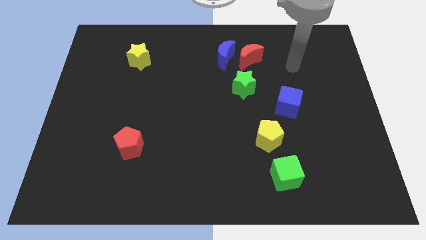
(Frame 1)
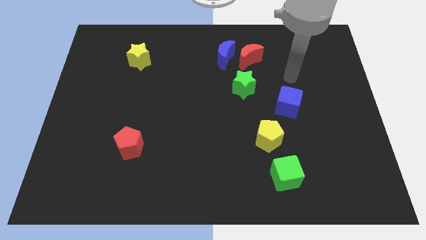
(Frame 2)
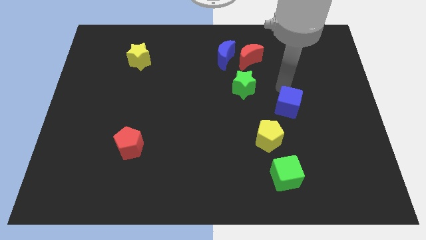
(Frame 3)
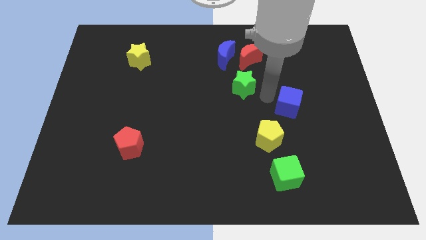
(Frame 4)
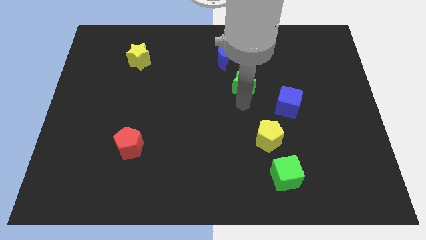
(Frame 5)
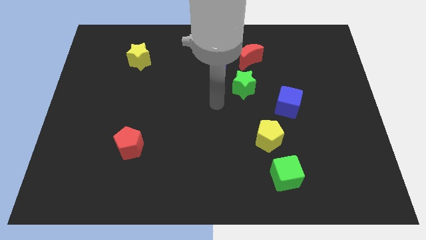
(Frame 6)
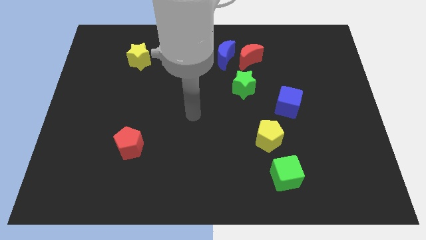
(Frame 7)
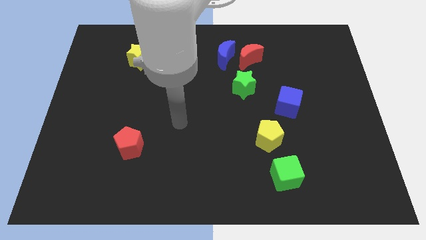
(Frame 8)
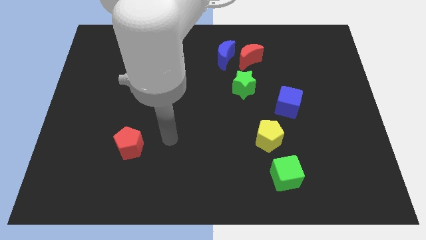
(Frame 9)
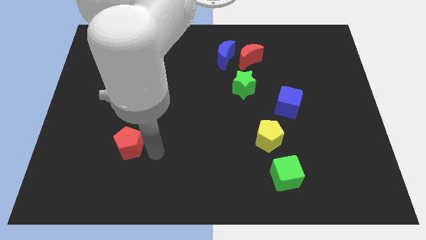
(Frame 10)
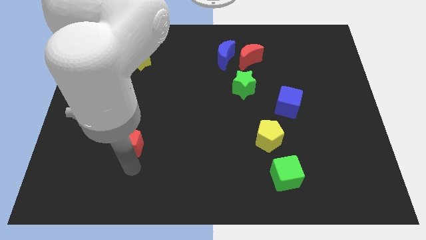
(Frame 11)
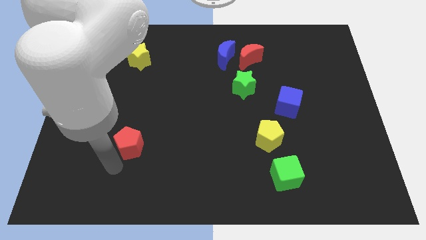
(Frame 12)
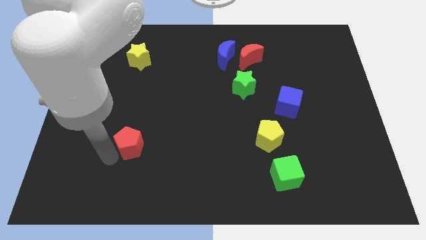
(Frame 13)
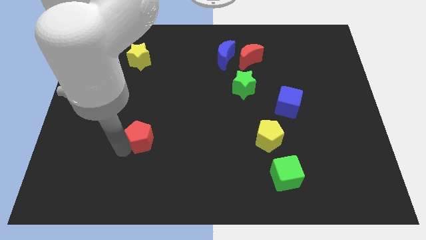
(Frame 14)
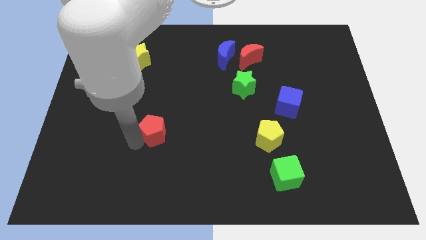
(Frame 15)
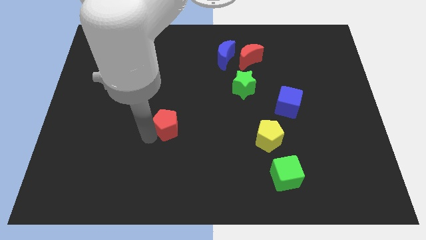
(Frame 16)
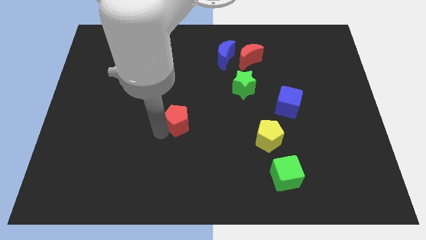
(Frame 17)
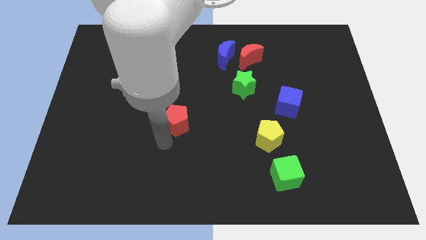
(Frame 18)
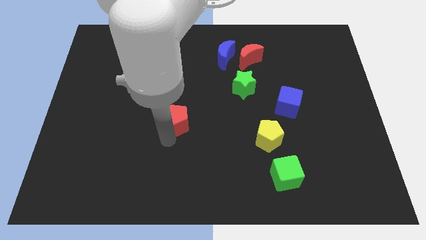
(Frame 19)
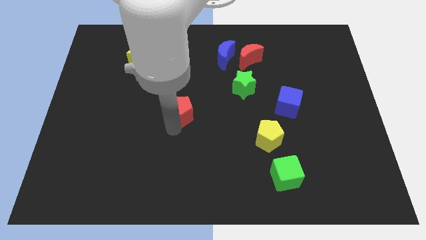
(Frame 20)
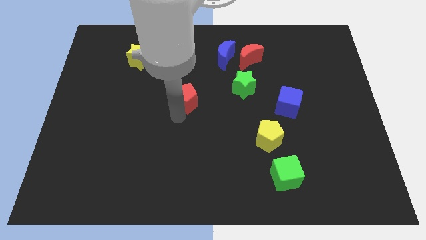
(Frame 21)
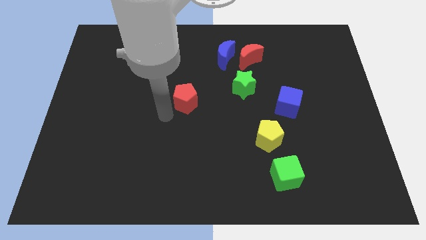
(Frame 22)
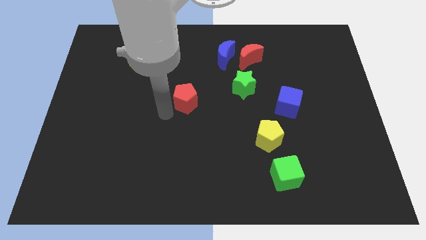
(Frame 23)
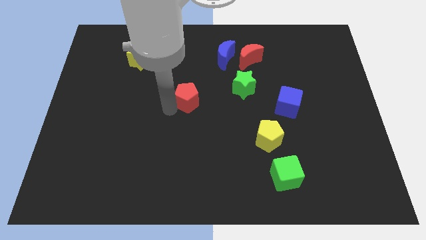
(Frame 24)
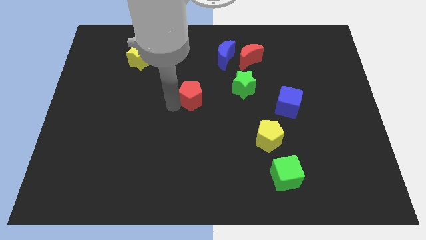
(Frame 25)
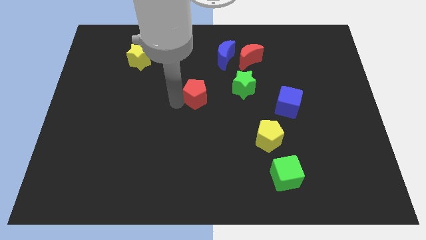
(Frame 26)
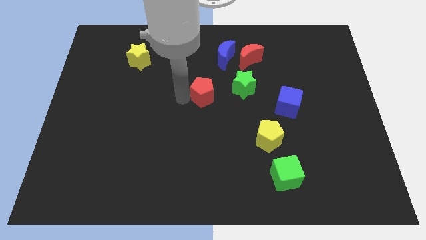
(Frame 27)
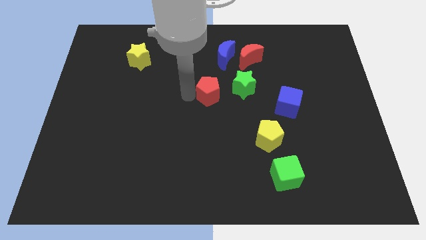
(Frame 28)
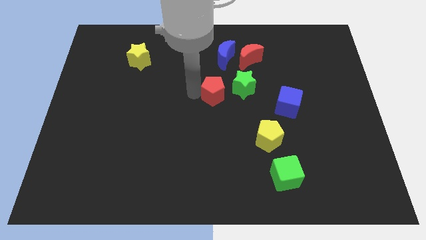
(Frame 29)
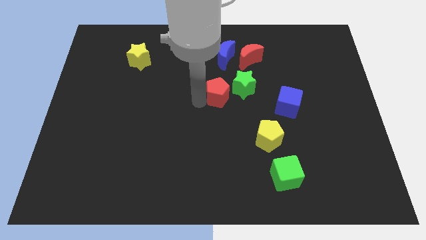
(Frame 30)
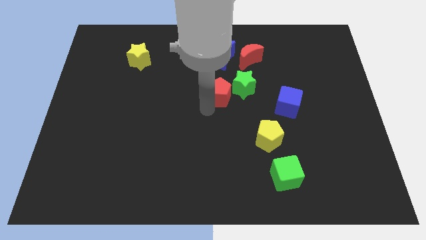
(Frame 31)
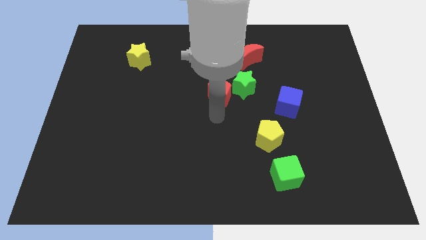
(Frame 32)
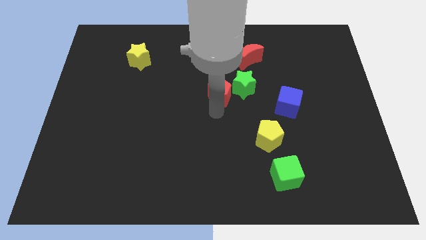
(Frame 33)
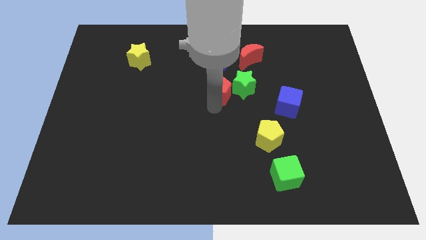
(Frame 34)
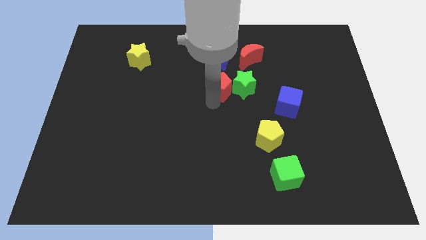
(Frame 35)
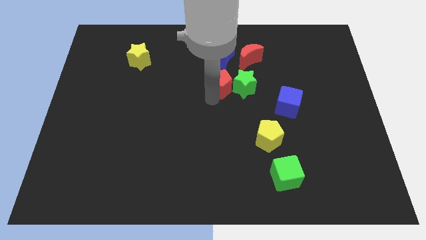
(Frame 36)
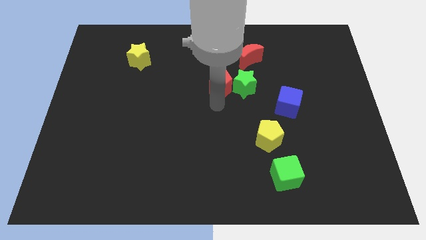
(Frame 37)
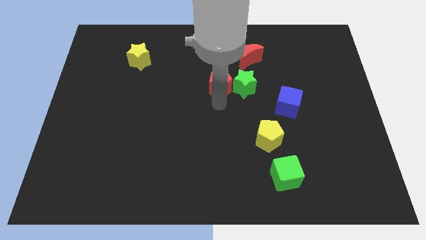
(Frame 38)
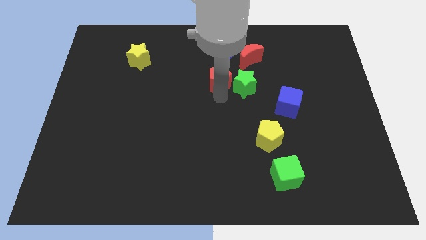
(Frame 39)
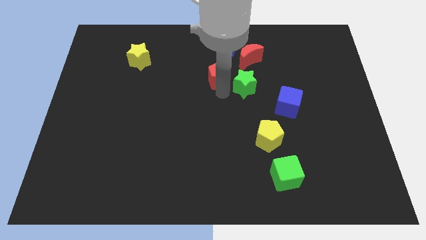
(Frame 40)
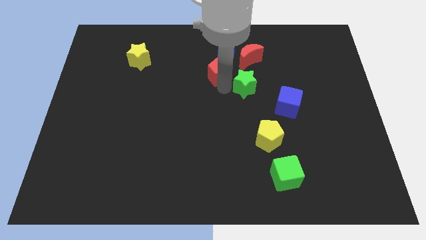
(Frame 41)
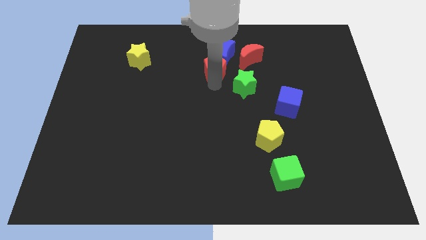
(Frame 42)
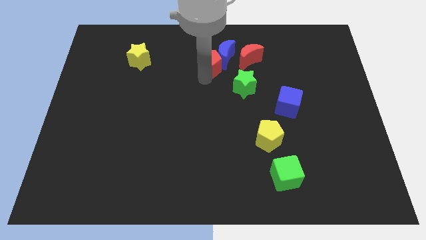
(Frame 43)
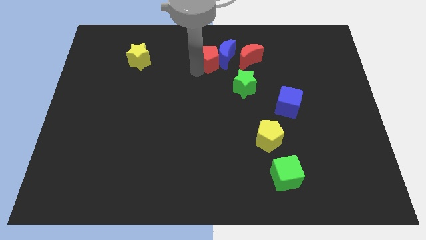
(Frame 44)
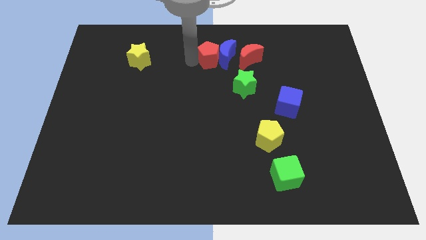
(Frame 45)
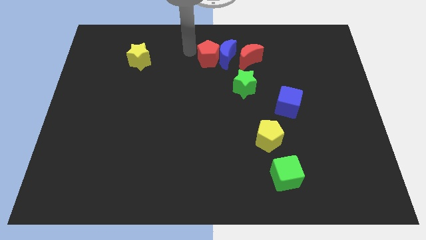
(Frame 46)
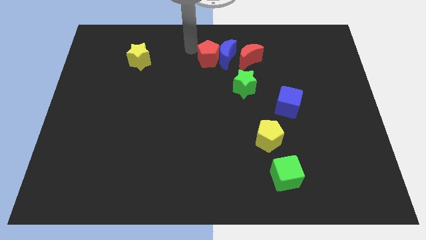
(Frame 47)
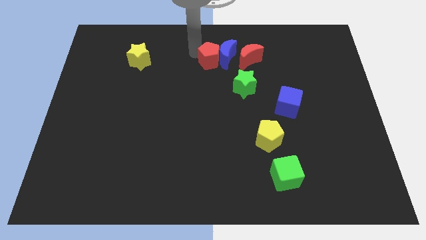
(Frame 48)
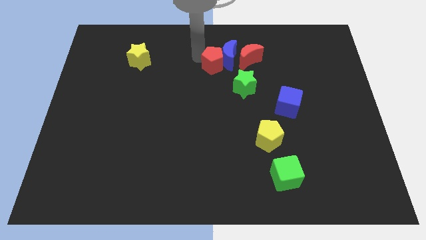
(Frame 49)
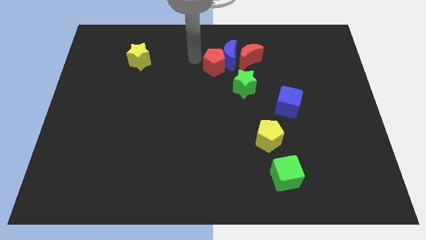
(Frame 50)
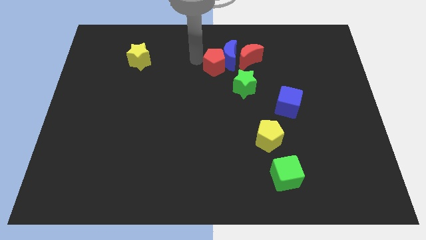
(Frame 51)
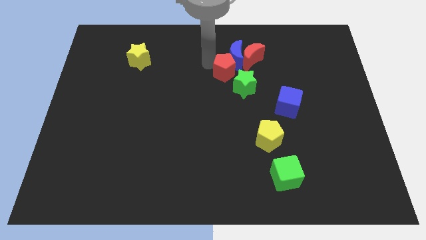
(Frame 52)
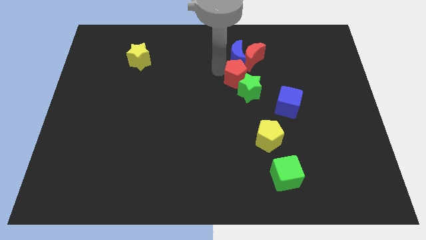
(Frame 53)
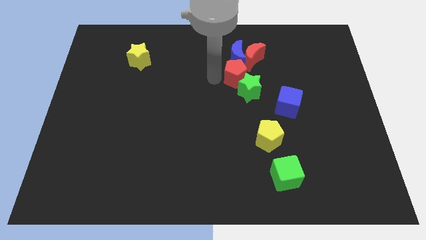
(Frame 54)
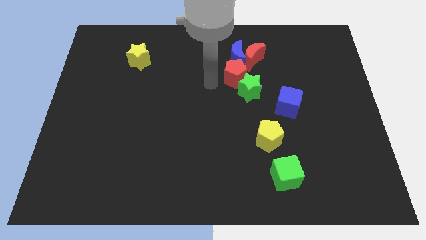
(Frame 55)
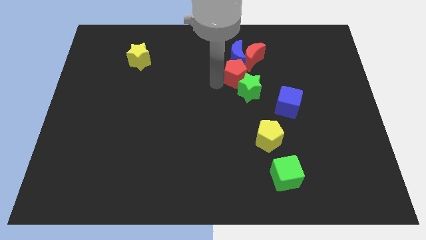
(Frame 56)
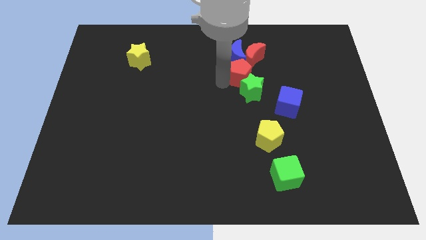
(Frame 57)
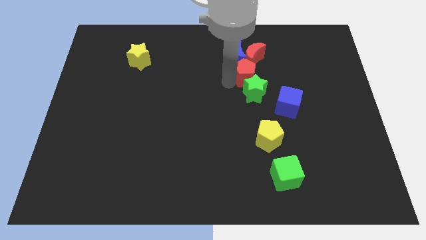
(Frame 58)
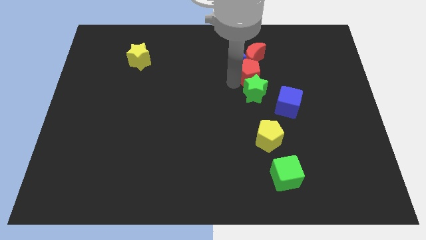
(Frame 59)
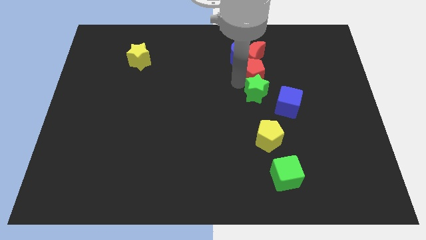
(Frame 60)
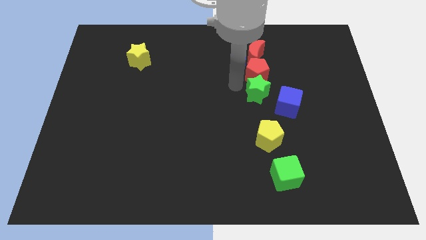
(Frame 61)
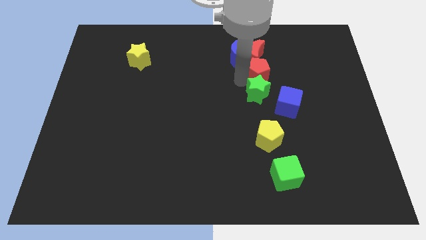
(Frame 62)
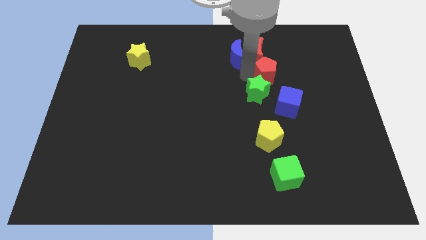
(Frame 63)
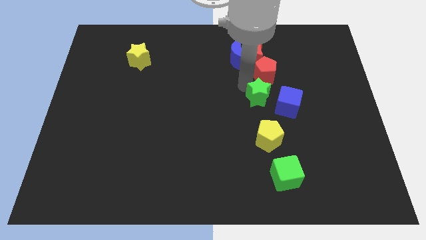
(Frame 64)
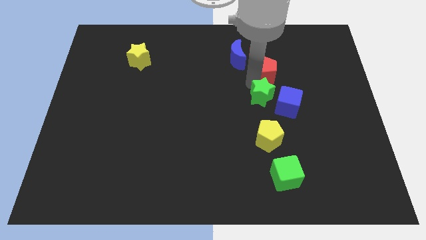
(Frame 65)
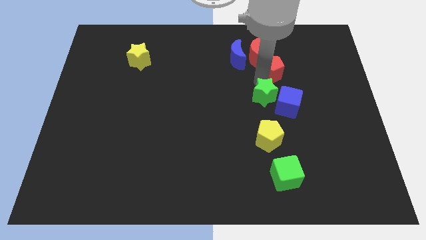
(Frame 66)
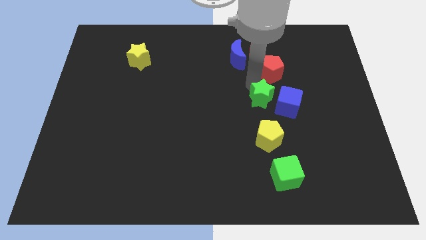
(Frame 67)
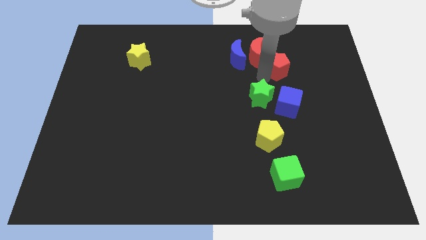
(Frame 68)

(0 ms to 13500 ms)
slide the red pentagon right of the red moon
